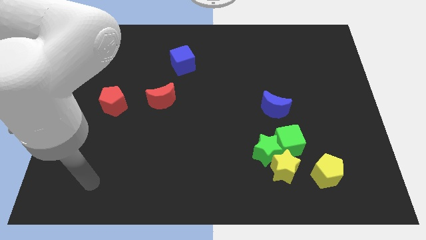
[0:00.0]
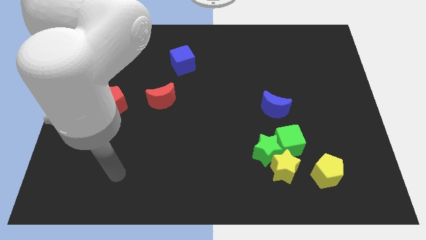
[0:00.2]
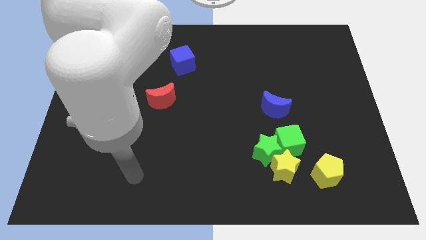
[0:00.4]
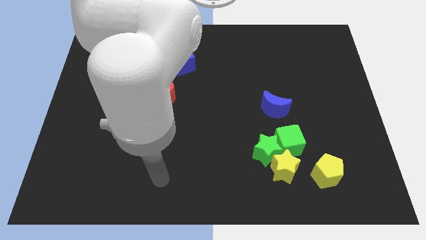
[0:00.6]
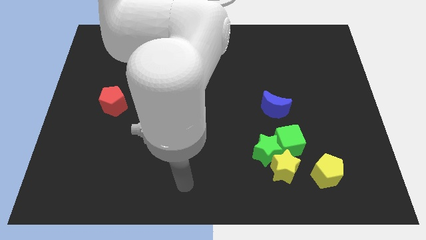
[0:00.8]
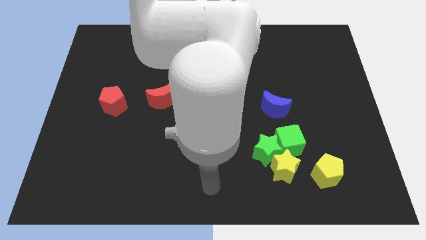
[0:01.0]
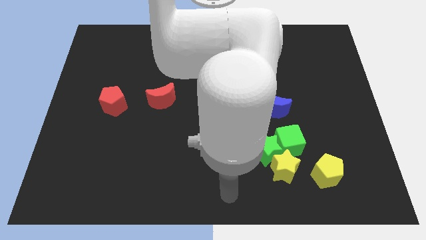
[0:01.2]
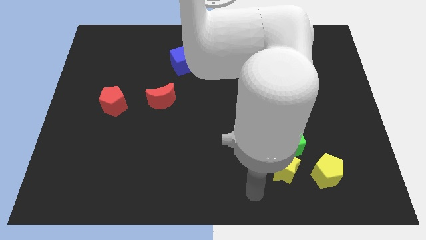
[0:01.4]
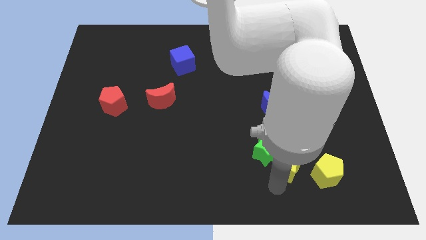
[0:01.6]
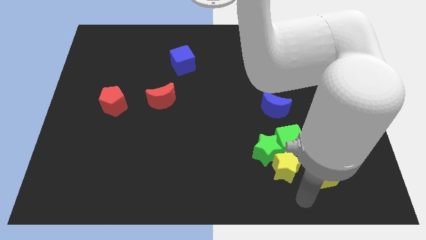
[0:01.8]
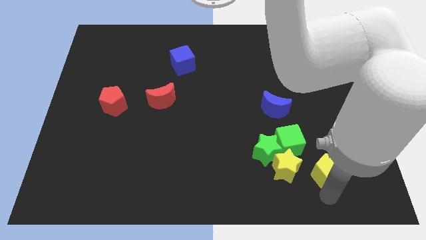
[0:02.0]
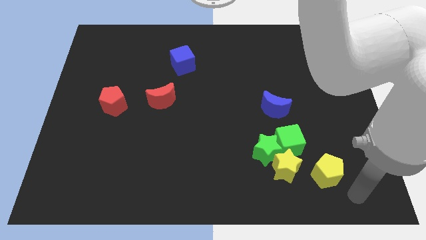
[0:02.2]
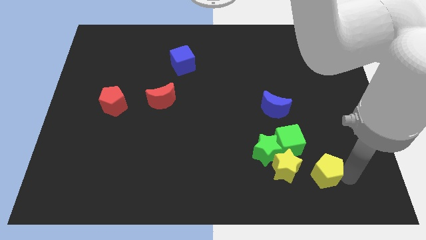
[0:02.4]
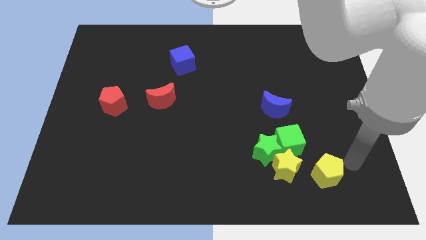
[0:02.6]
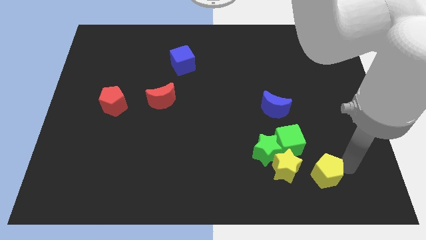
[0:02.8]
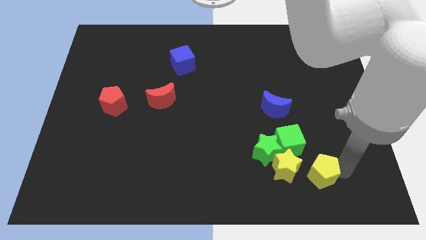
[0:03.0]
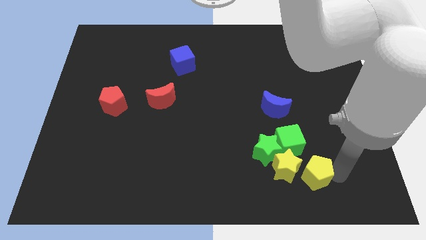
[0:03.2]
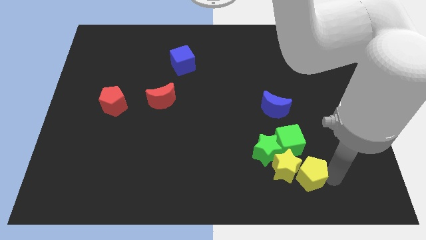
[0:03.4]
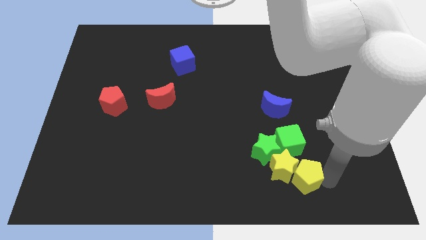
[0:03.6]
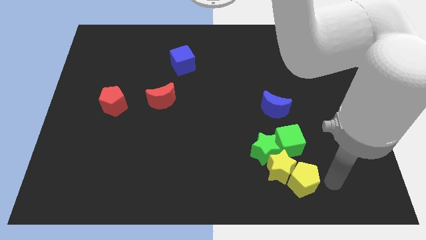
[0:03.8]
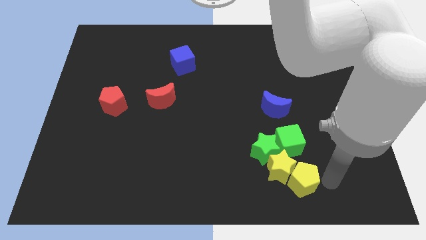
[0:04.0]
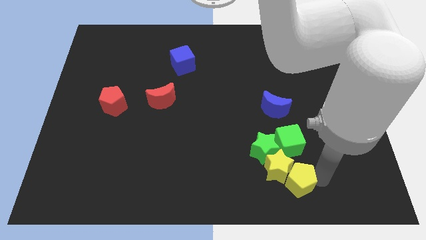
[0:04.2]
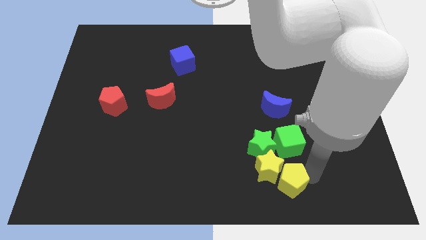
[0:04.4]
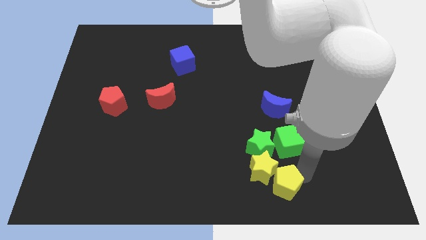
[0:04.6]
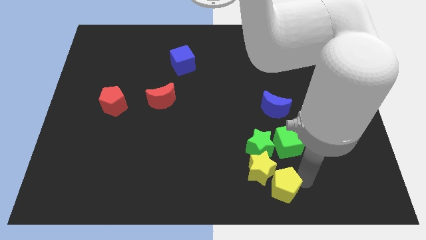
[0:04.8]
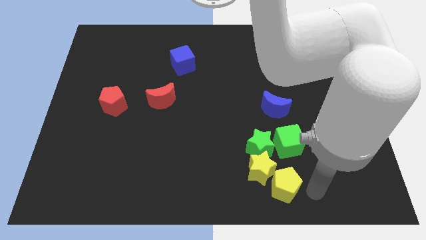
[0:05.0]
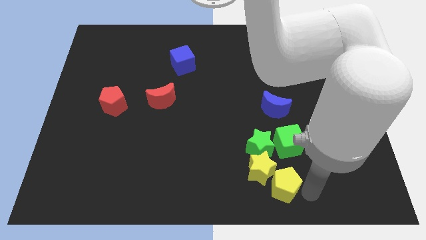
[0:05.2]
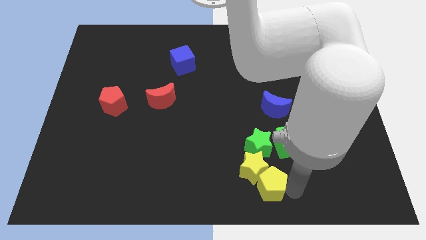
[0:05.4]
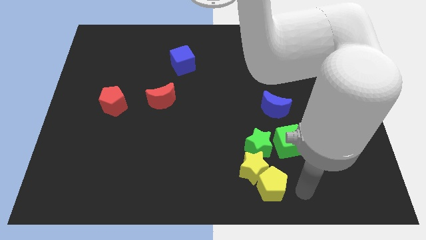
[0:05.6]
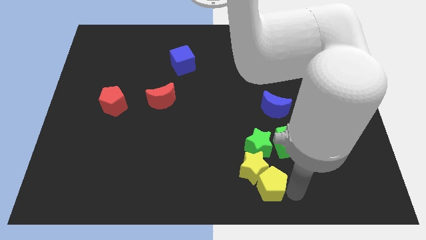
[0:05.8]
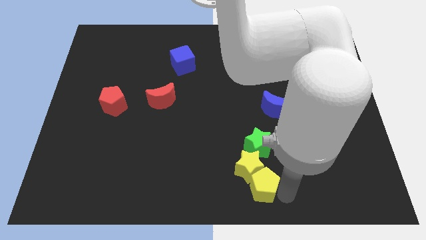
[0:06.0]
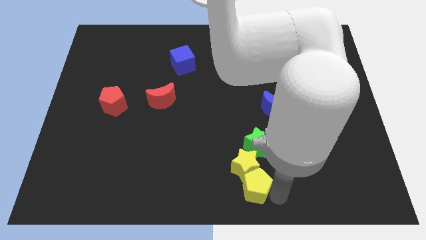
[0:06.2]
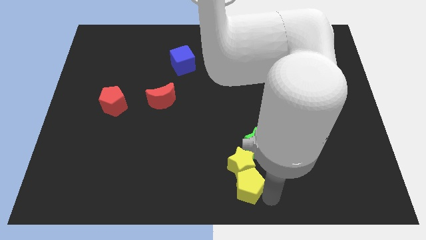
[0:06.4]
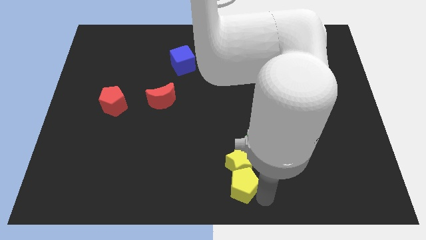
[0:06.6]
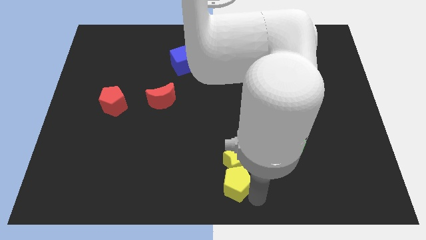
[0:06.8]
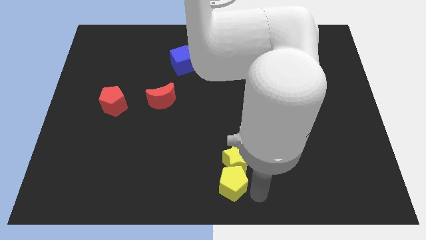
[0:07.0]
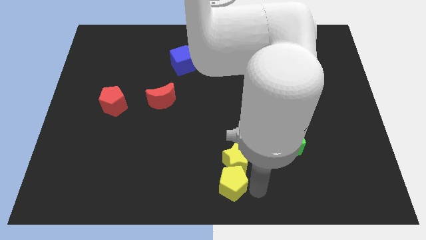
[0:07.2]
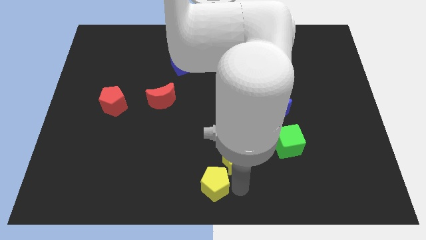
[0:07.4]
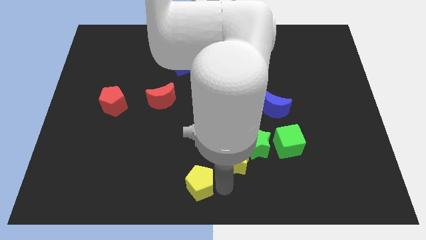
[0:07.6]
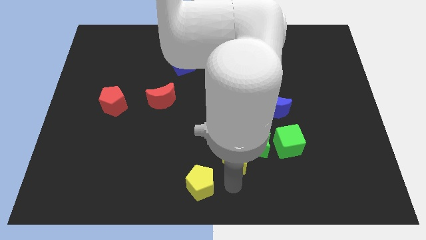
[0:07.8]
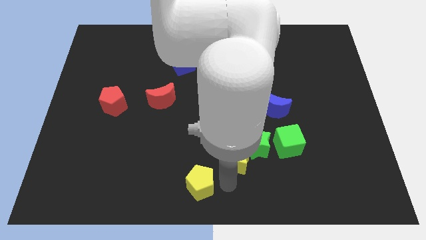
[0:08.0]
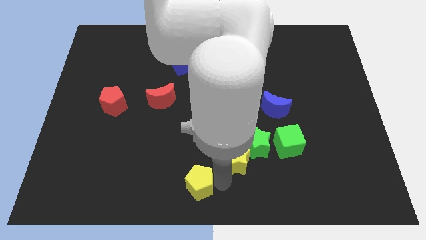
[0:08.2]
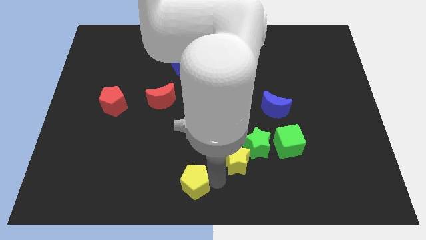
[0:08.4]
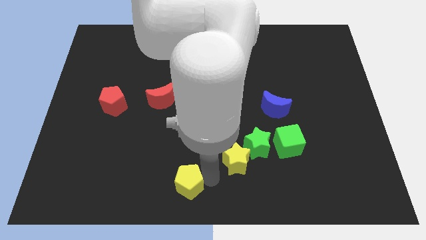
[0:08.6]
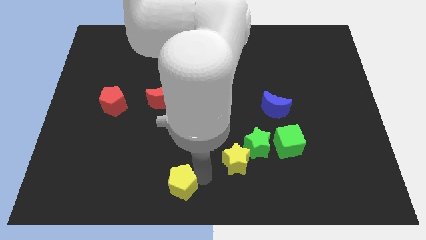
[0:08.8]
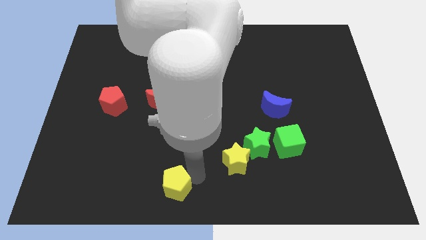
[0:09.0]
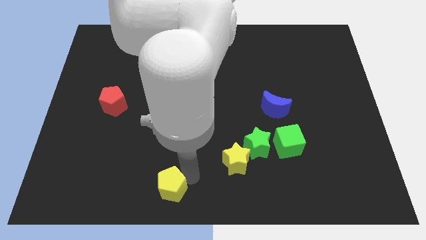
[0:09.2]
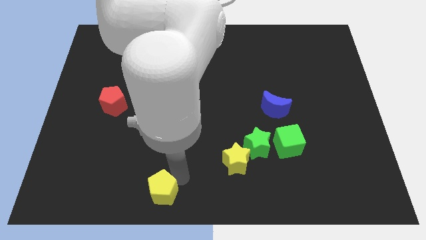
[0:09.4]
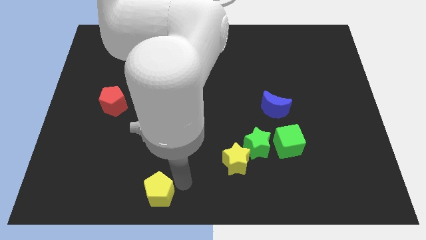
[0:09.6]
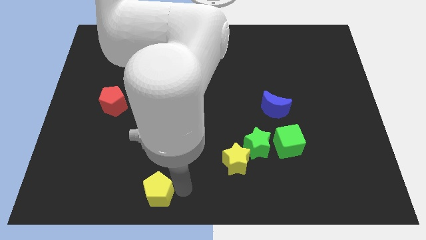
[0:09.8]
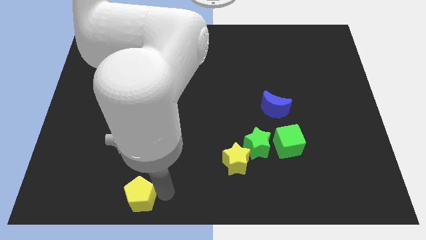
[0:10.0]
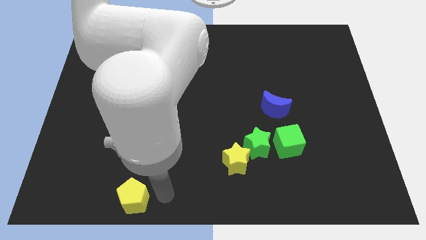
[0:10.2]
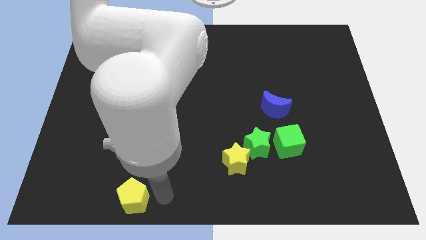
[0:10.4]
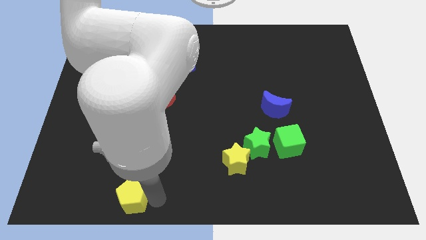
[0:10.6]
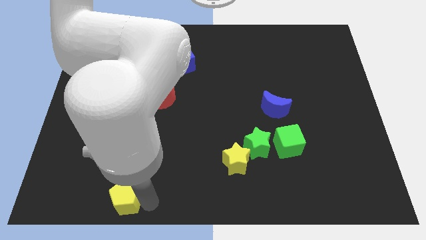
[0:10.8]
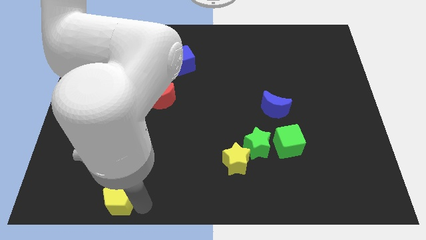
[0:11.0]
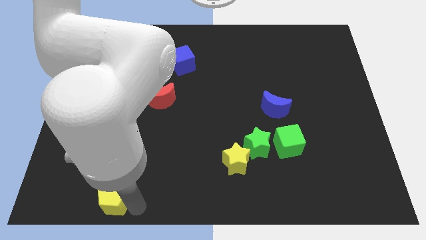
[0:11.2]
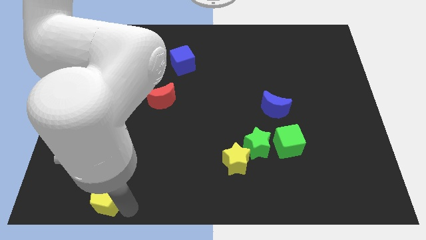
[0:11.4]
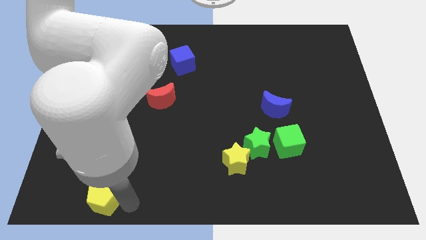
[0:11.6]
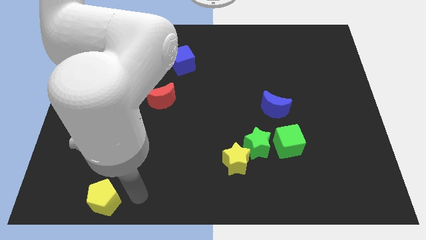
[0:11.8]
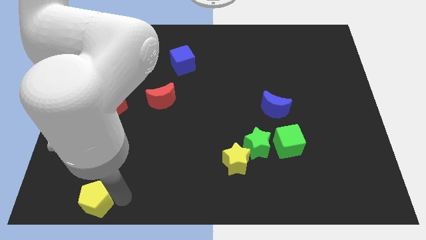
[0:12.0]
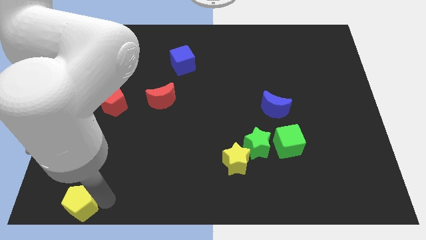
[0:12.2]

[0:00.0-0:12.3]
put the yellow pentagon to the bottom left corner

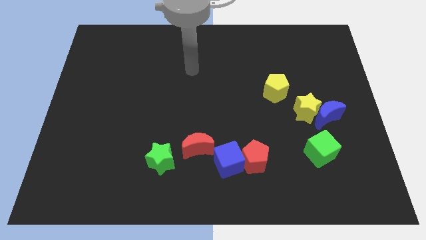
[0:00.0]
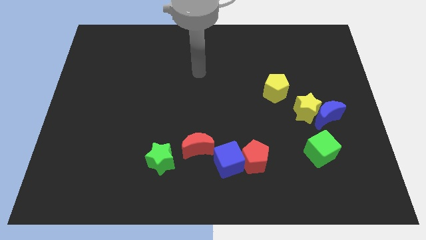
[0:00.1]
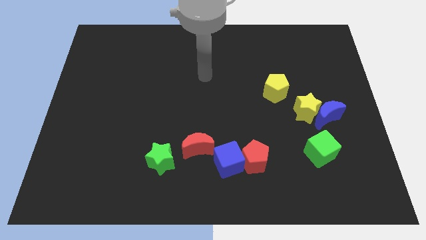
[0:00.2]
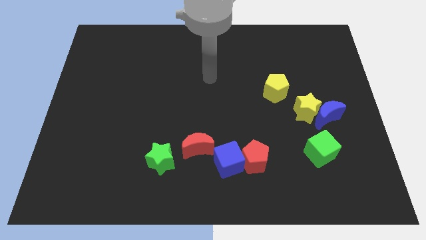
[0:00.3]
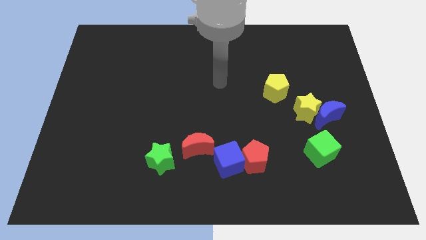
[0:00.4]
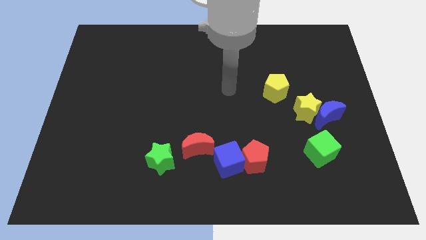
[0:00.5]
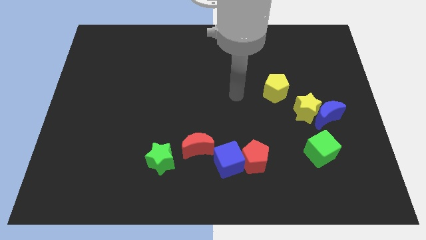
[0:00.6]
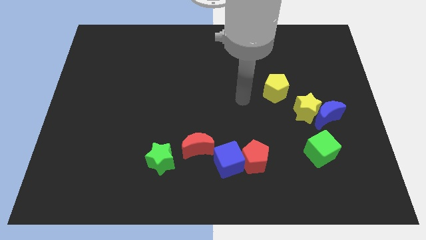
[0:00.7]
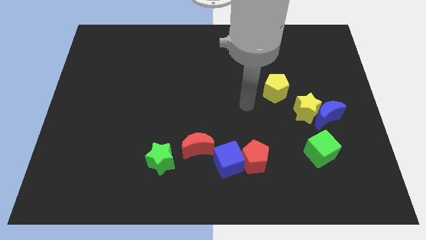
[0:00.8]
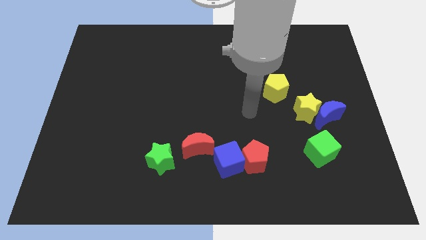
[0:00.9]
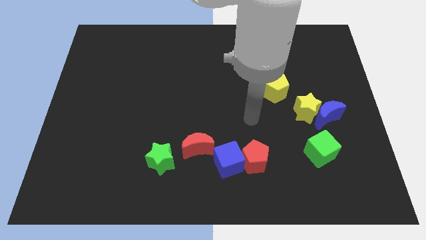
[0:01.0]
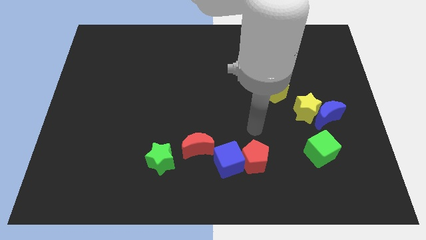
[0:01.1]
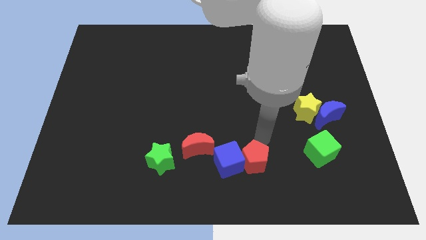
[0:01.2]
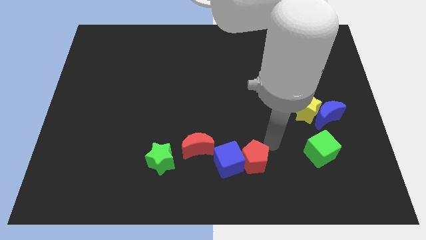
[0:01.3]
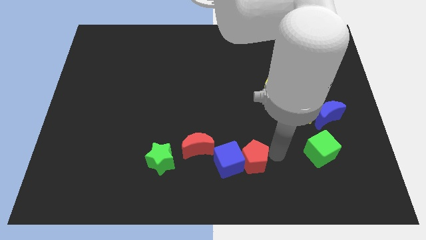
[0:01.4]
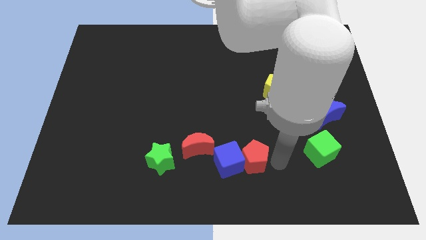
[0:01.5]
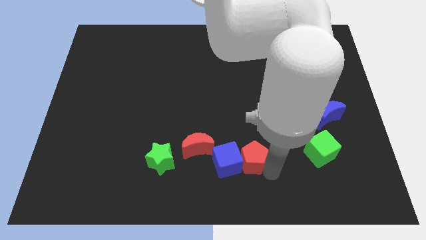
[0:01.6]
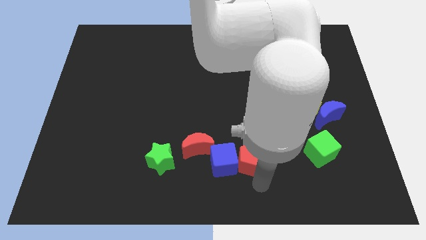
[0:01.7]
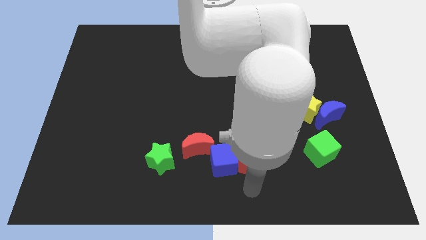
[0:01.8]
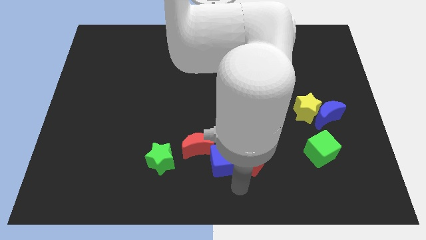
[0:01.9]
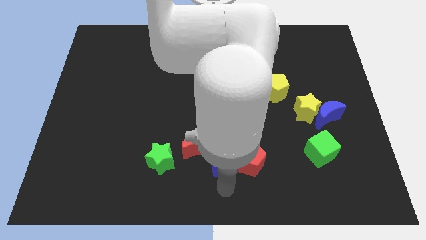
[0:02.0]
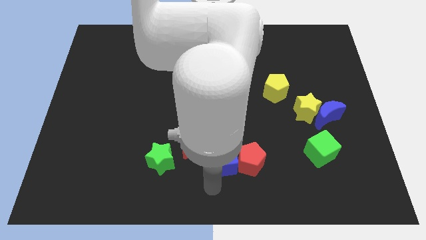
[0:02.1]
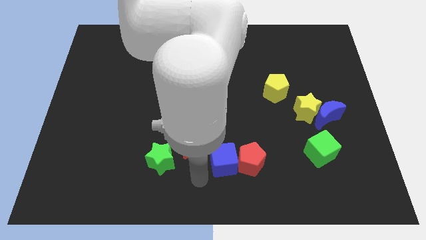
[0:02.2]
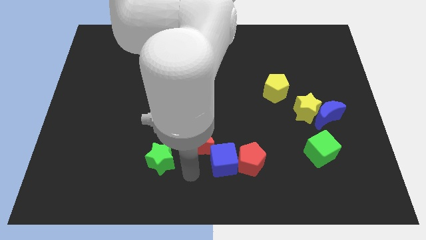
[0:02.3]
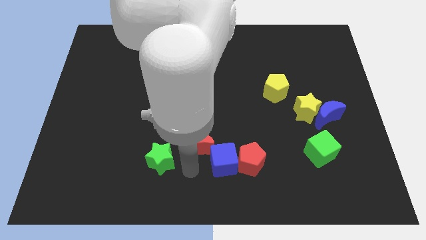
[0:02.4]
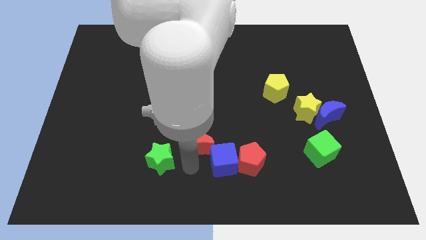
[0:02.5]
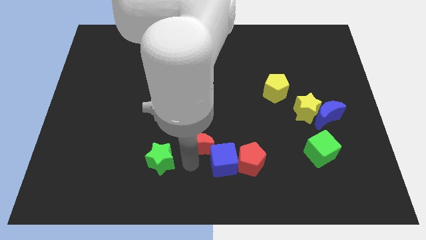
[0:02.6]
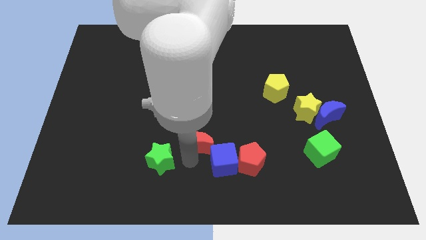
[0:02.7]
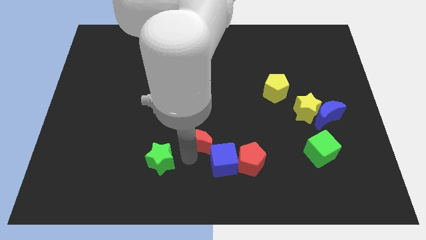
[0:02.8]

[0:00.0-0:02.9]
slide the red moon to the center of the board
